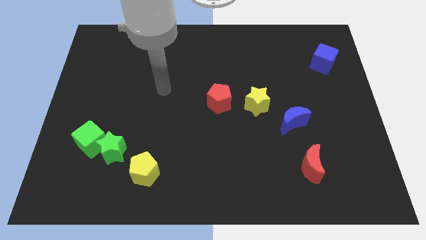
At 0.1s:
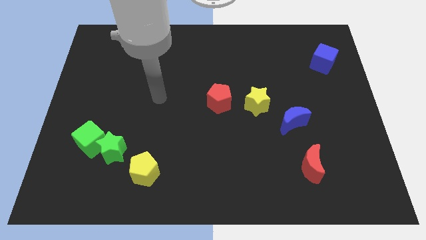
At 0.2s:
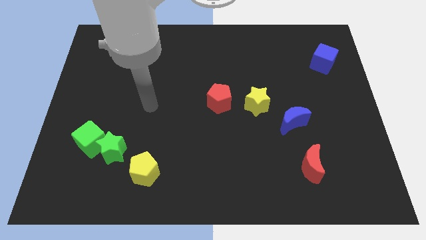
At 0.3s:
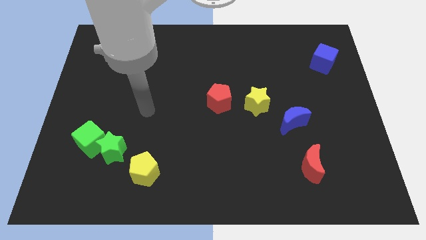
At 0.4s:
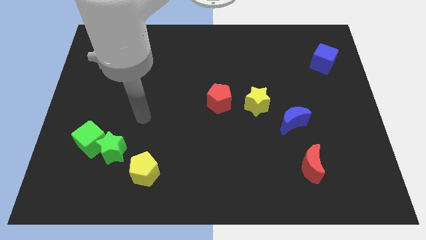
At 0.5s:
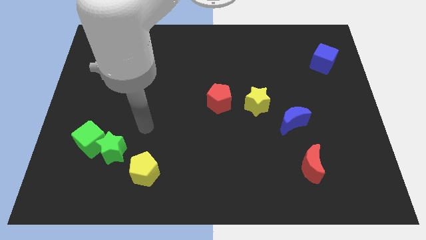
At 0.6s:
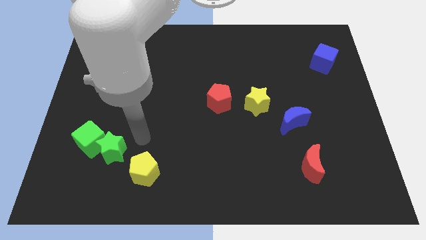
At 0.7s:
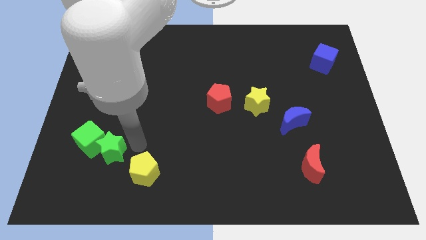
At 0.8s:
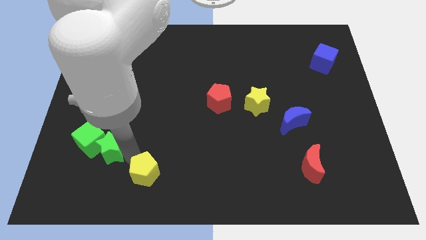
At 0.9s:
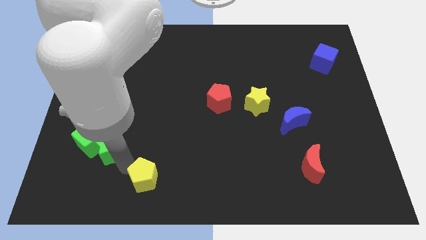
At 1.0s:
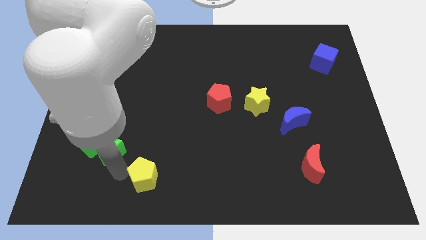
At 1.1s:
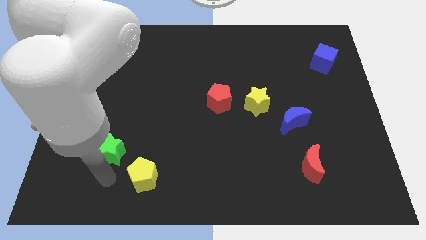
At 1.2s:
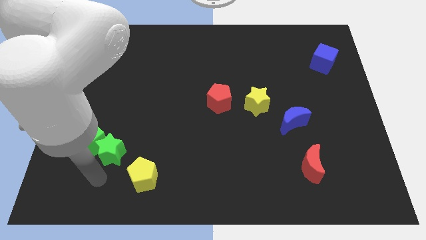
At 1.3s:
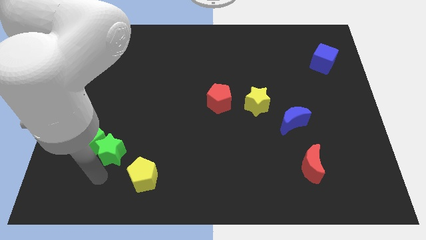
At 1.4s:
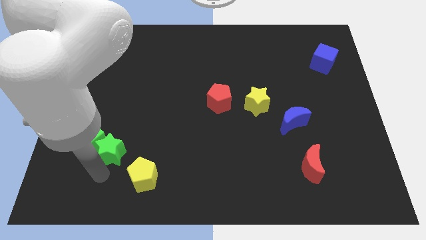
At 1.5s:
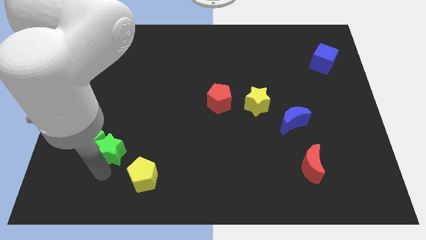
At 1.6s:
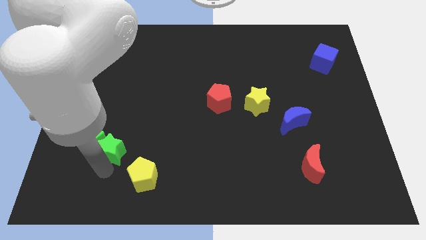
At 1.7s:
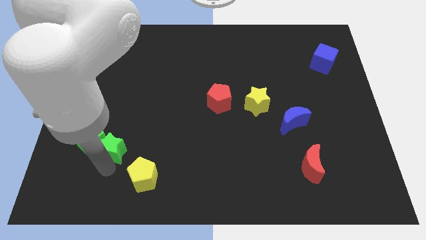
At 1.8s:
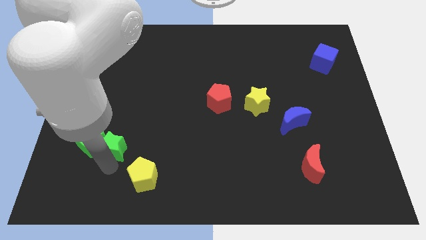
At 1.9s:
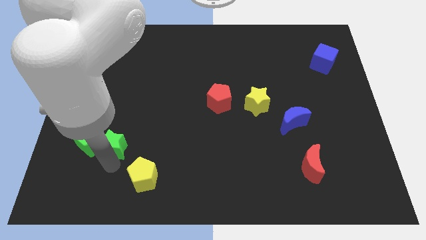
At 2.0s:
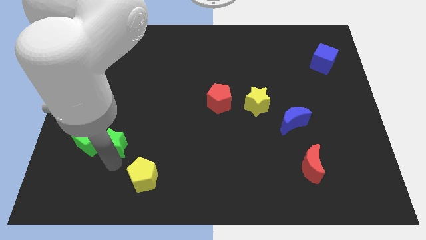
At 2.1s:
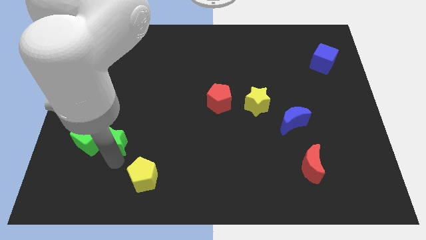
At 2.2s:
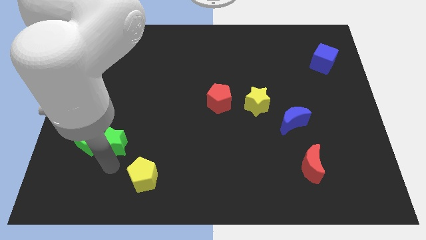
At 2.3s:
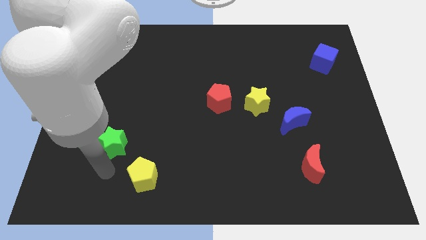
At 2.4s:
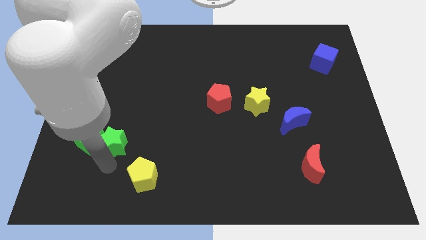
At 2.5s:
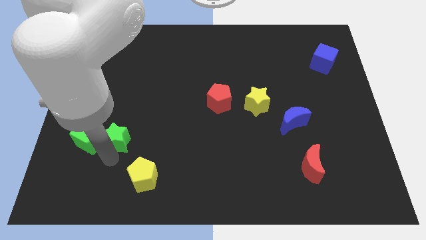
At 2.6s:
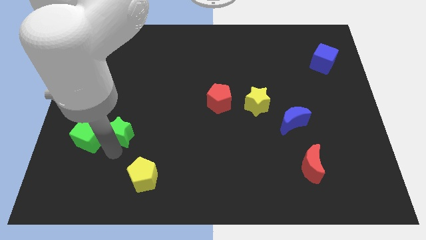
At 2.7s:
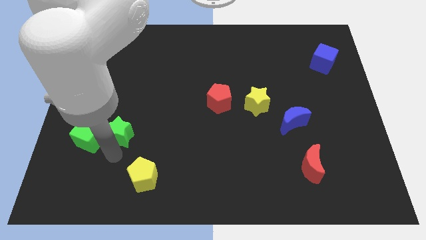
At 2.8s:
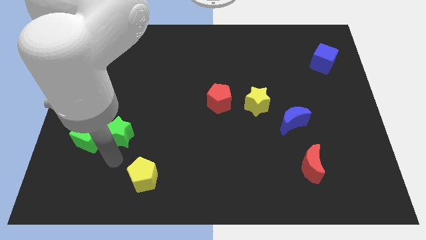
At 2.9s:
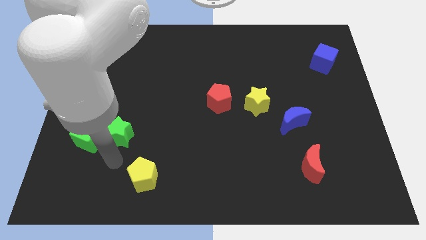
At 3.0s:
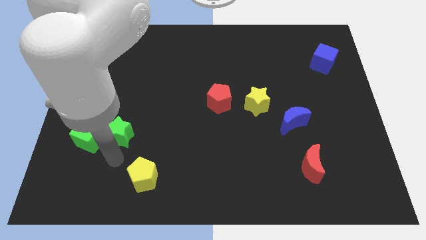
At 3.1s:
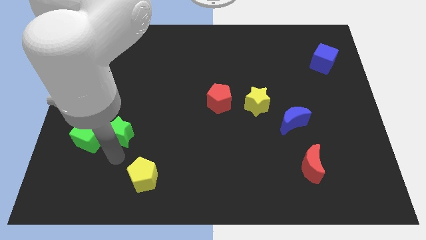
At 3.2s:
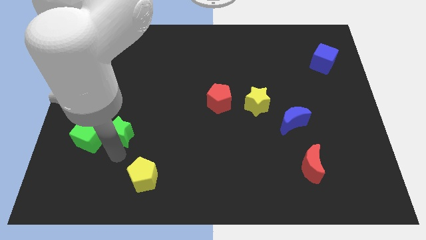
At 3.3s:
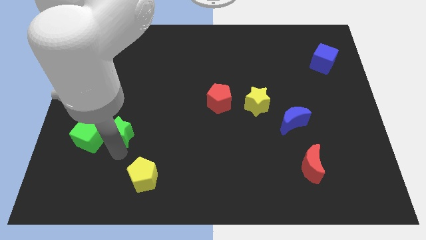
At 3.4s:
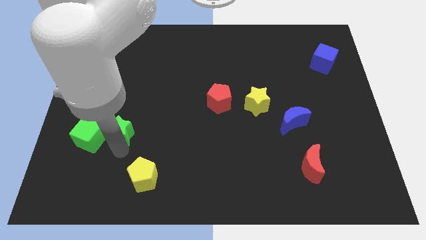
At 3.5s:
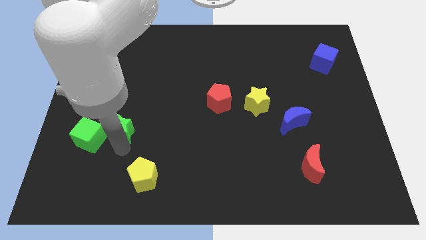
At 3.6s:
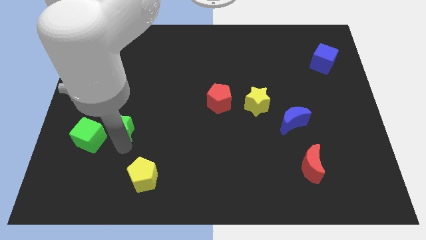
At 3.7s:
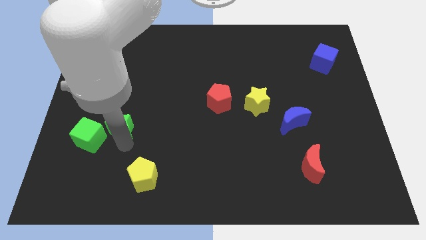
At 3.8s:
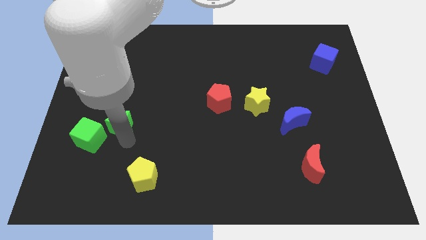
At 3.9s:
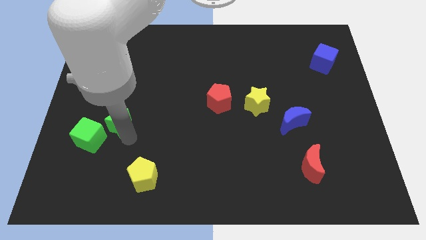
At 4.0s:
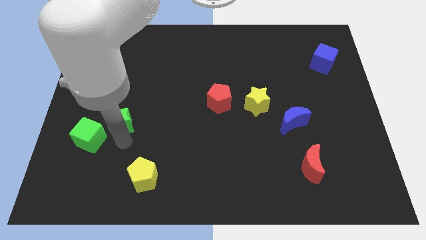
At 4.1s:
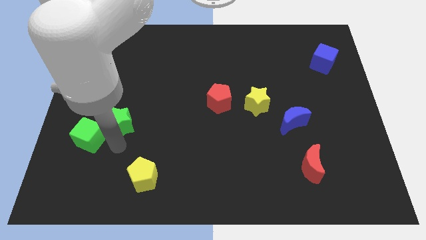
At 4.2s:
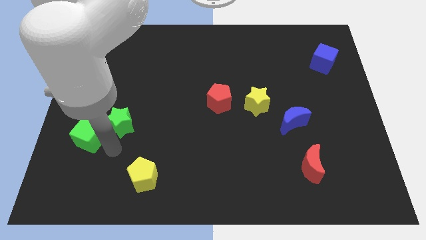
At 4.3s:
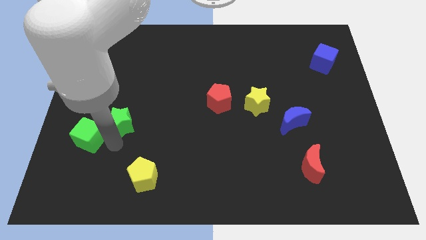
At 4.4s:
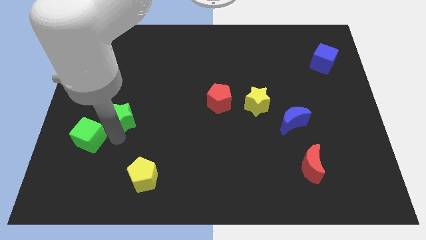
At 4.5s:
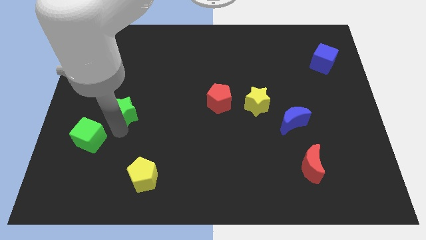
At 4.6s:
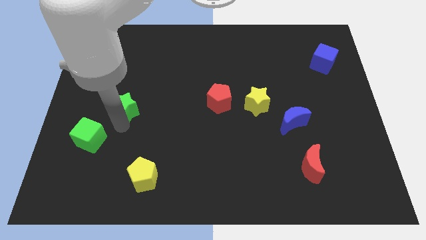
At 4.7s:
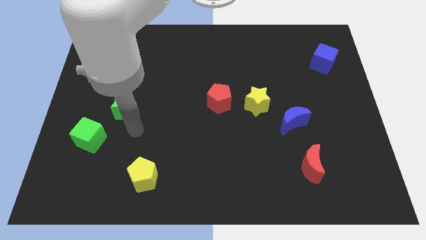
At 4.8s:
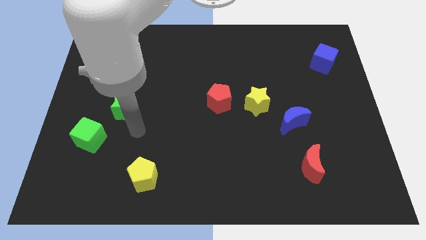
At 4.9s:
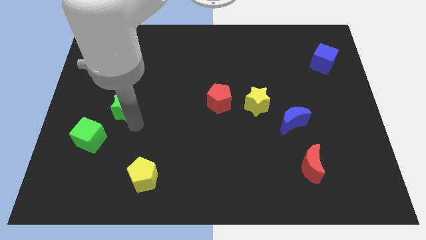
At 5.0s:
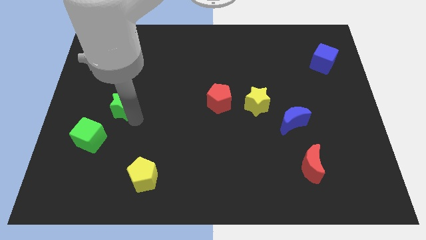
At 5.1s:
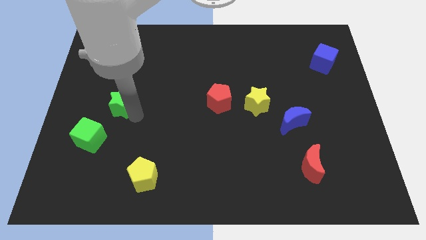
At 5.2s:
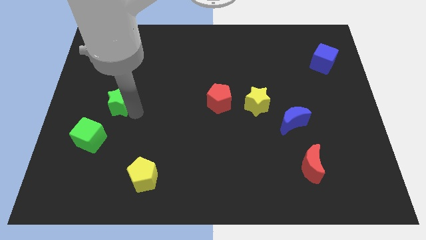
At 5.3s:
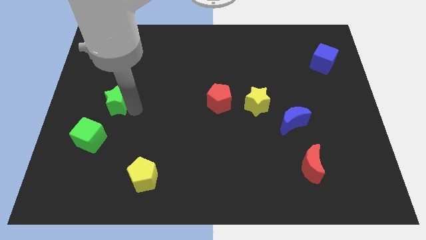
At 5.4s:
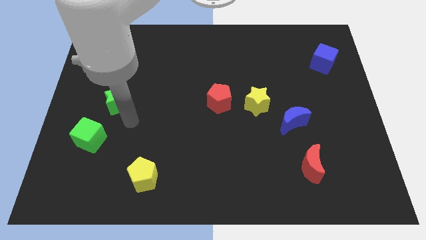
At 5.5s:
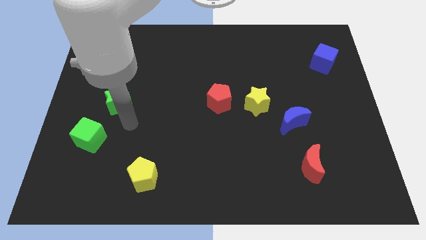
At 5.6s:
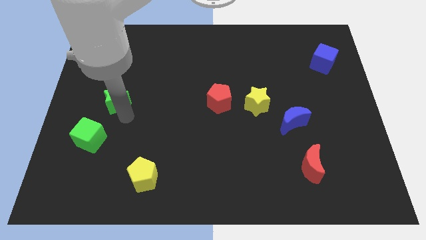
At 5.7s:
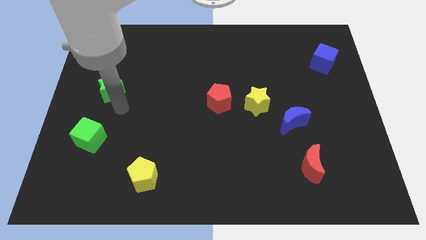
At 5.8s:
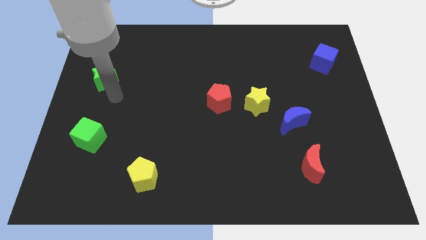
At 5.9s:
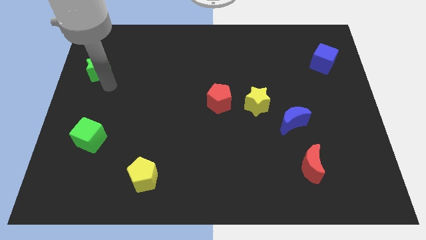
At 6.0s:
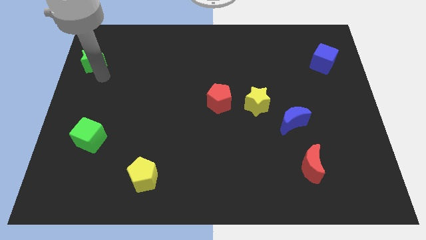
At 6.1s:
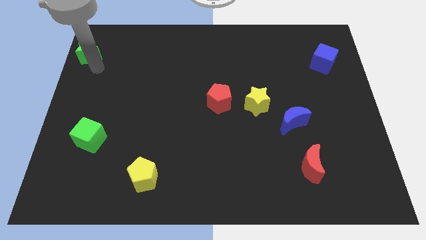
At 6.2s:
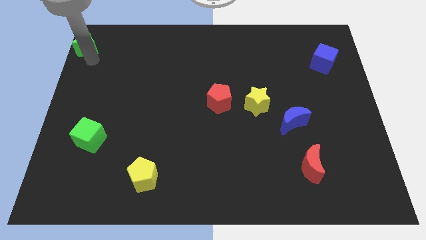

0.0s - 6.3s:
slide the green star to the upper left corner
